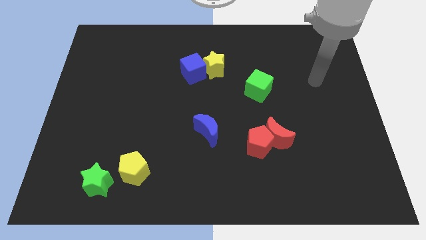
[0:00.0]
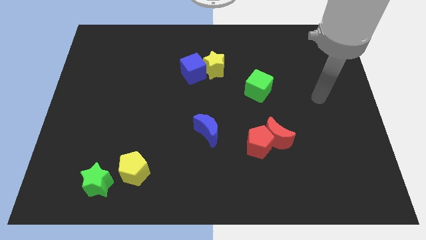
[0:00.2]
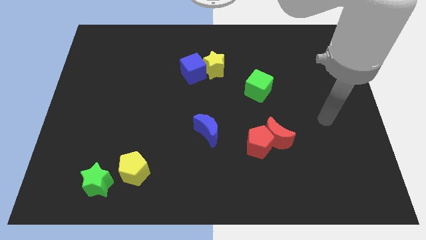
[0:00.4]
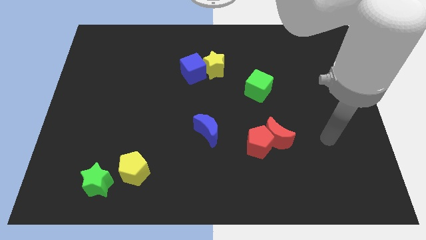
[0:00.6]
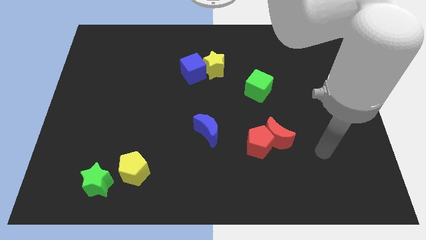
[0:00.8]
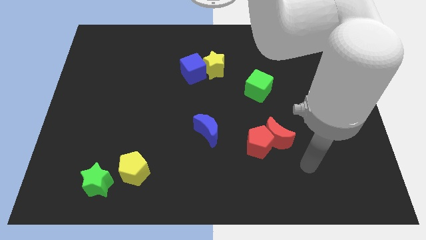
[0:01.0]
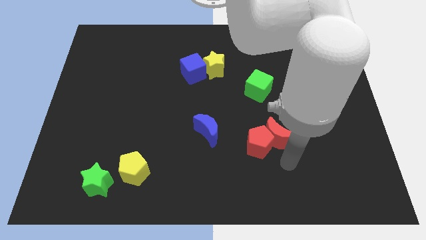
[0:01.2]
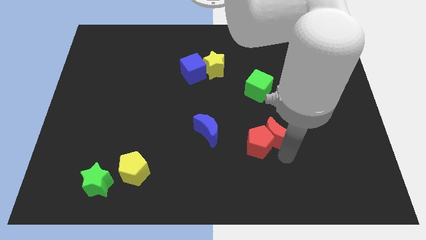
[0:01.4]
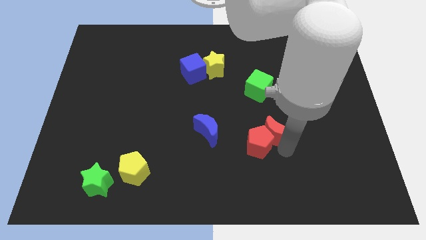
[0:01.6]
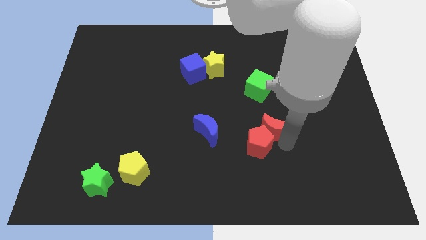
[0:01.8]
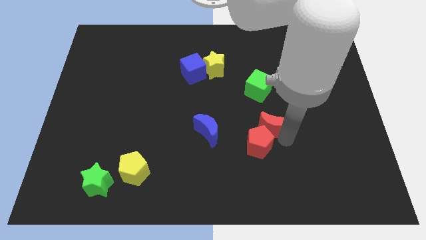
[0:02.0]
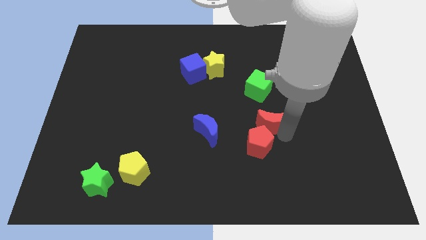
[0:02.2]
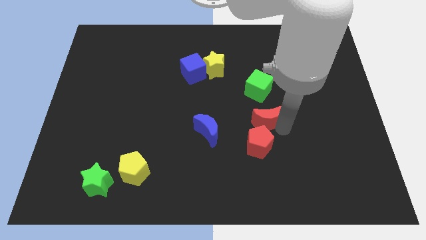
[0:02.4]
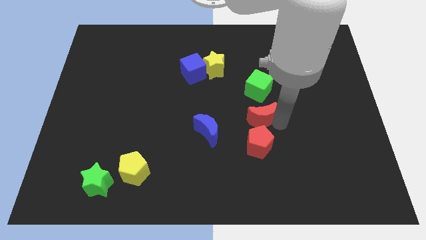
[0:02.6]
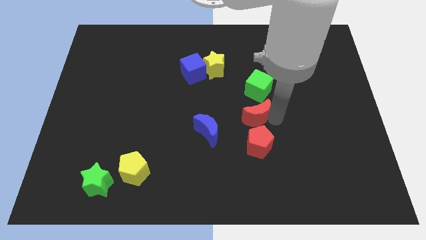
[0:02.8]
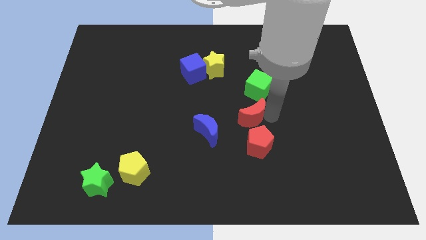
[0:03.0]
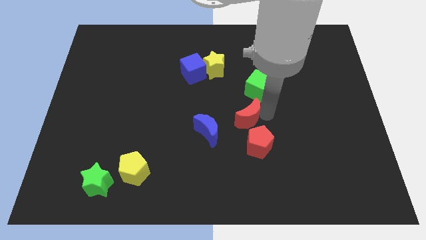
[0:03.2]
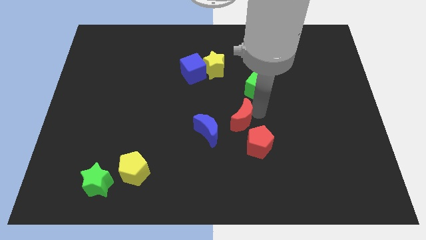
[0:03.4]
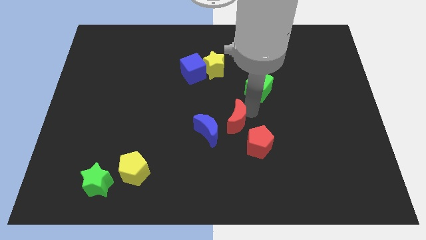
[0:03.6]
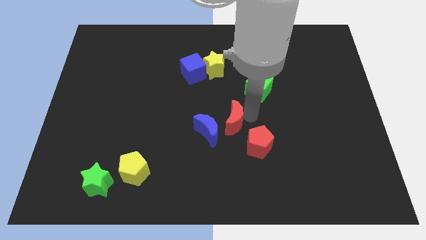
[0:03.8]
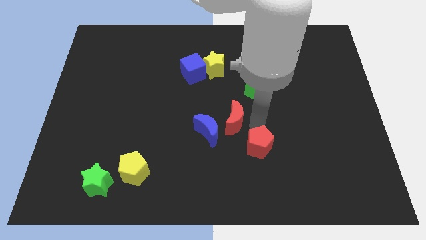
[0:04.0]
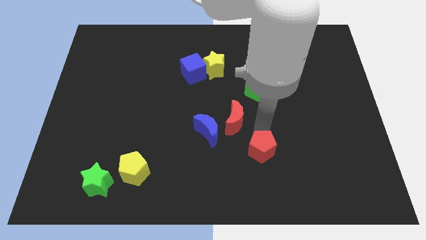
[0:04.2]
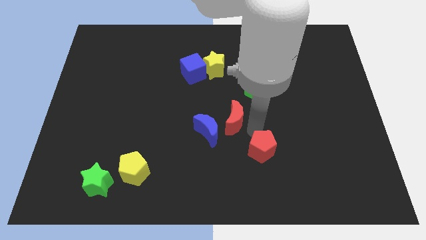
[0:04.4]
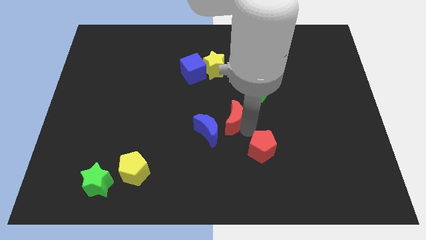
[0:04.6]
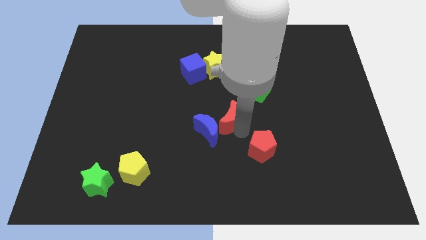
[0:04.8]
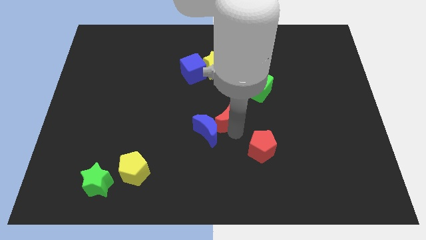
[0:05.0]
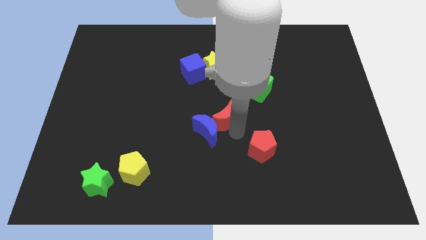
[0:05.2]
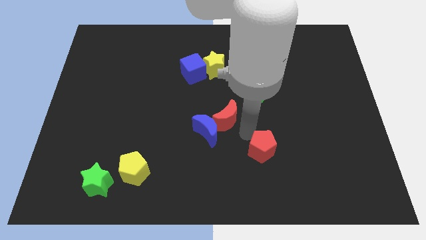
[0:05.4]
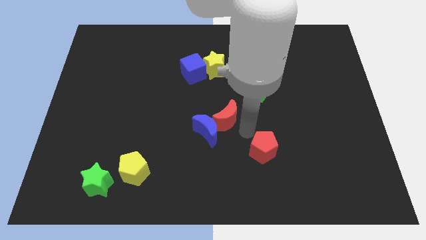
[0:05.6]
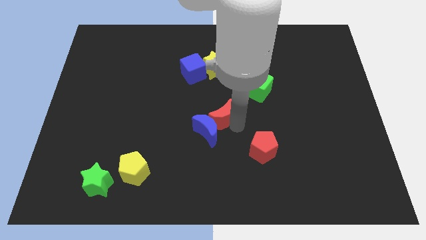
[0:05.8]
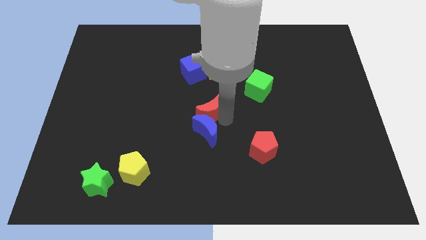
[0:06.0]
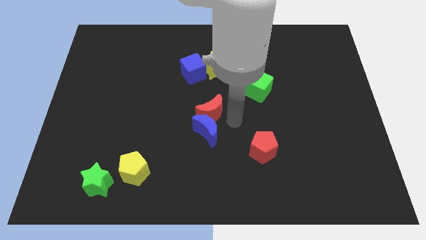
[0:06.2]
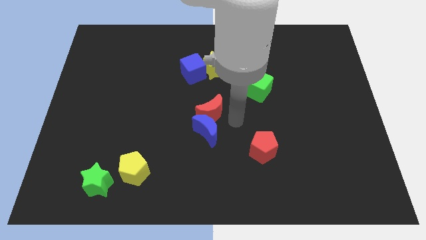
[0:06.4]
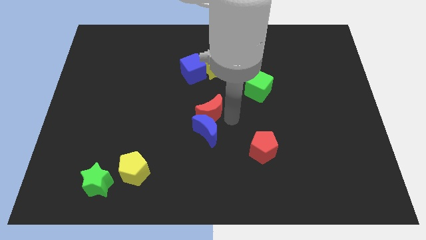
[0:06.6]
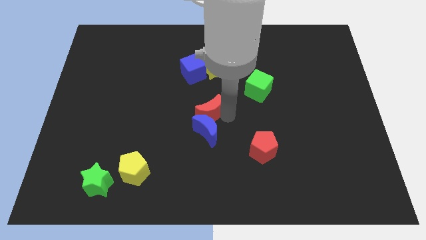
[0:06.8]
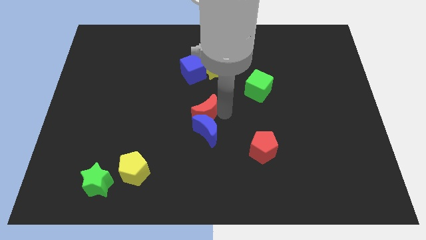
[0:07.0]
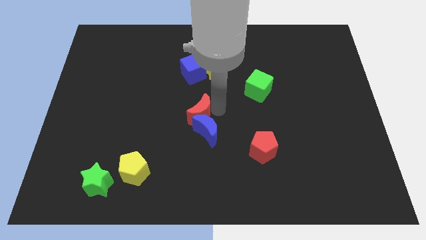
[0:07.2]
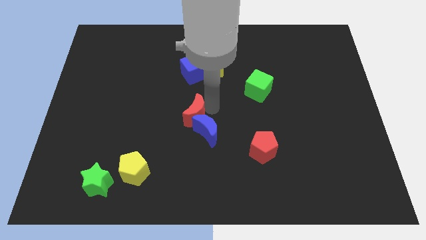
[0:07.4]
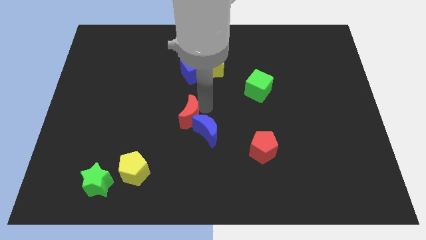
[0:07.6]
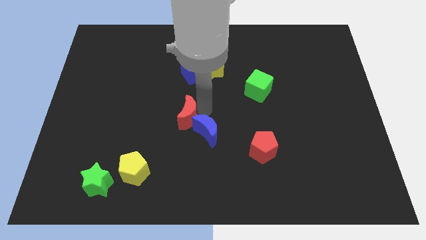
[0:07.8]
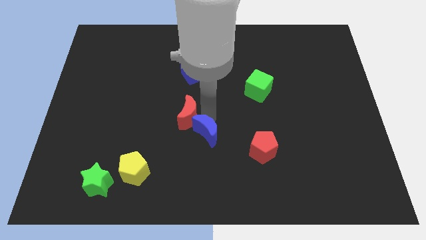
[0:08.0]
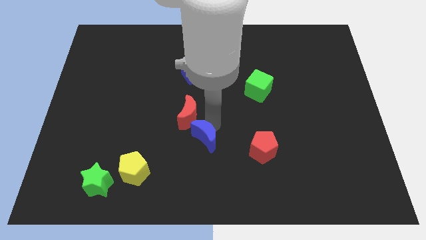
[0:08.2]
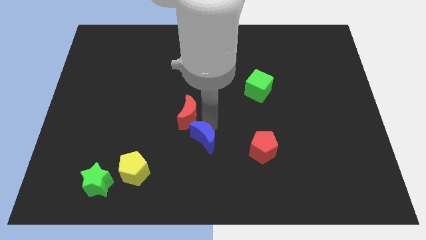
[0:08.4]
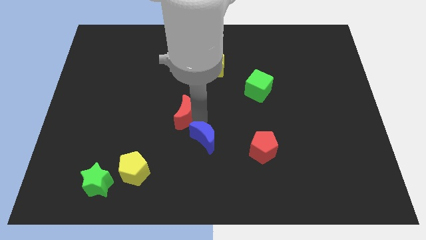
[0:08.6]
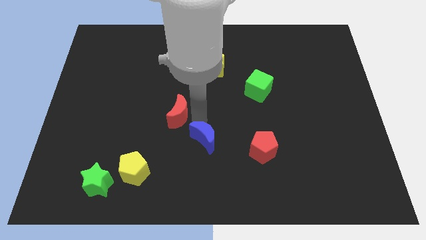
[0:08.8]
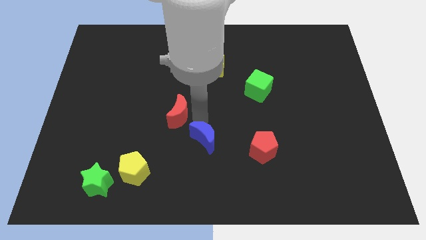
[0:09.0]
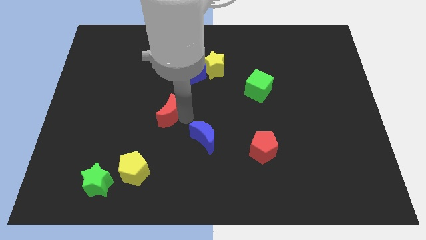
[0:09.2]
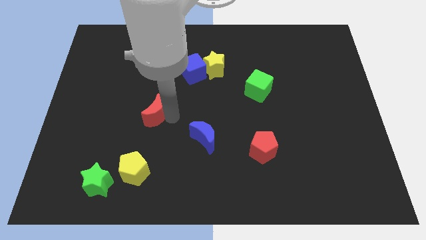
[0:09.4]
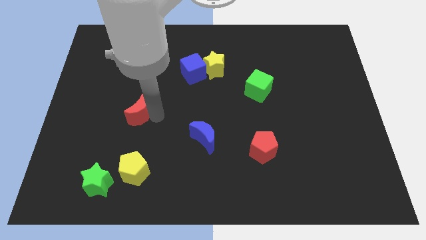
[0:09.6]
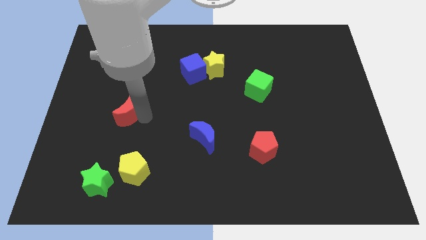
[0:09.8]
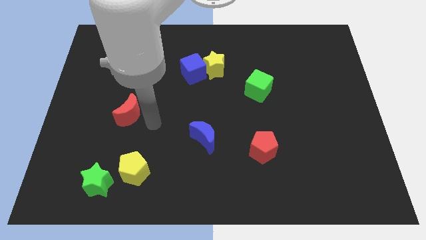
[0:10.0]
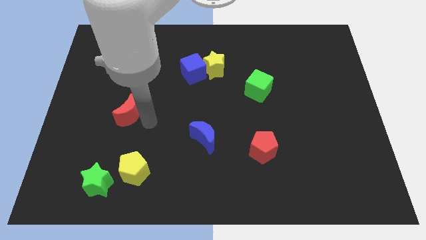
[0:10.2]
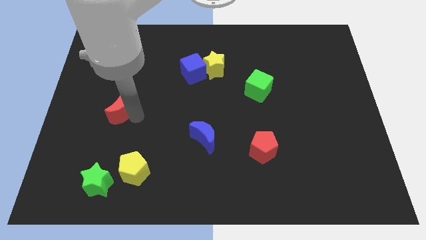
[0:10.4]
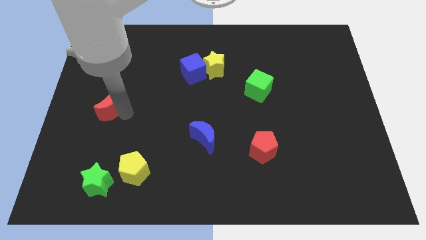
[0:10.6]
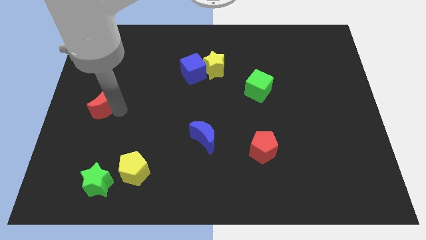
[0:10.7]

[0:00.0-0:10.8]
put the red moon to the left side
